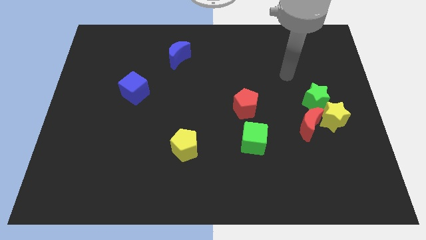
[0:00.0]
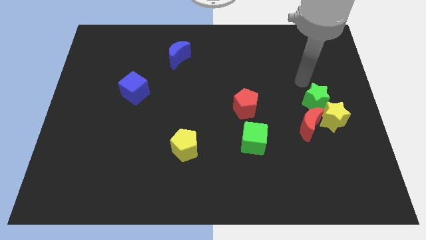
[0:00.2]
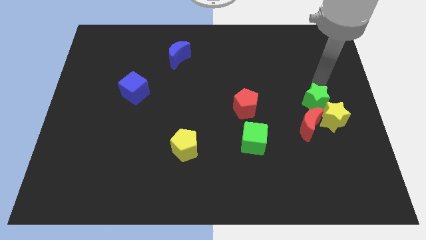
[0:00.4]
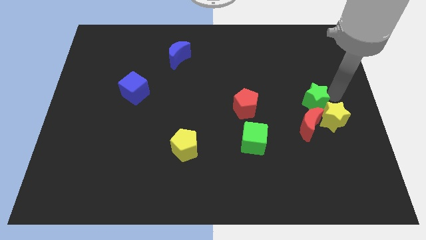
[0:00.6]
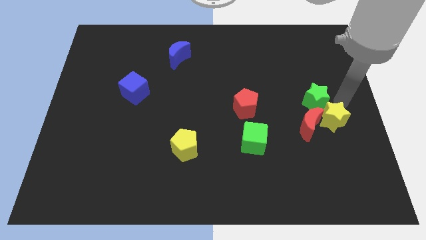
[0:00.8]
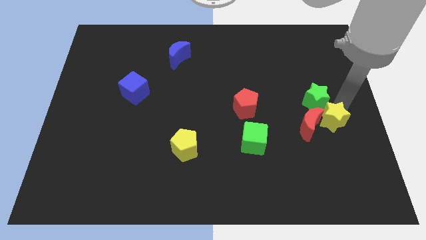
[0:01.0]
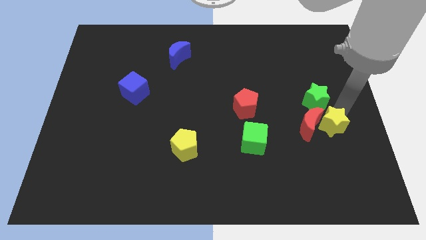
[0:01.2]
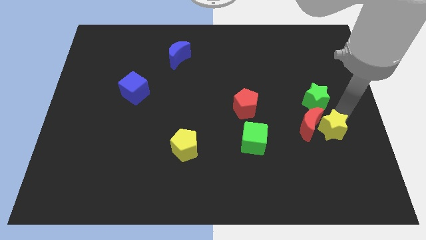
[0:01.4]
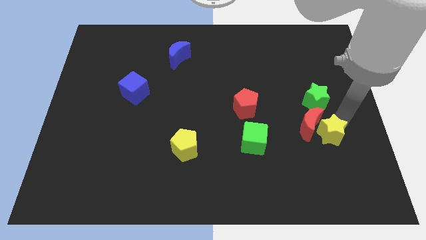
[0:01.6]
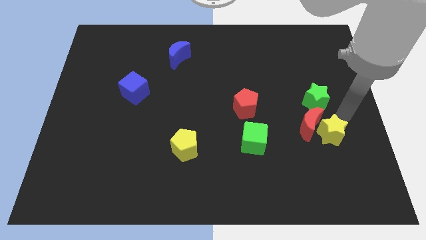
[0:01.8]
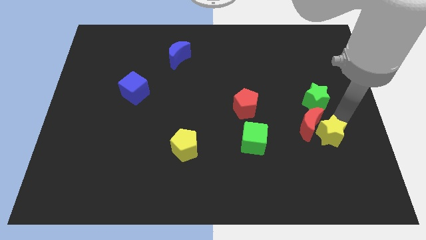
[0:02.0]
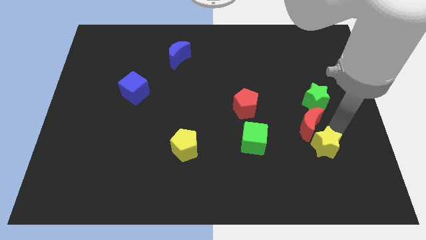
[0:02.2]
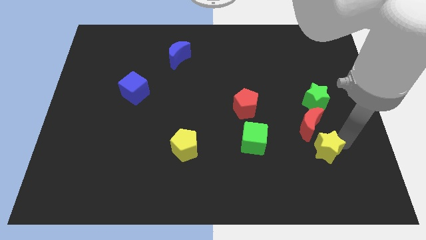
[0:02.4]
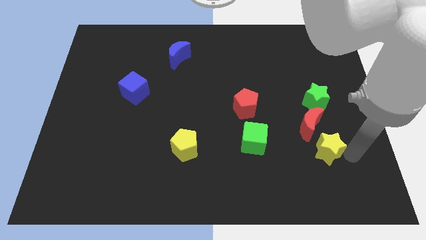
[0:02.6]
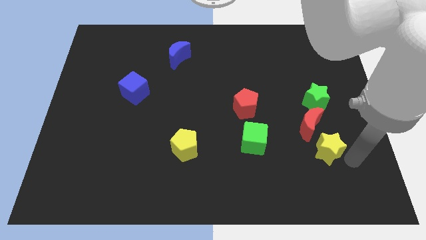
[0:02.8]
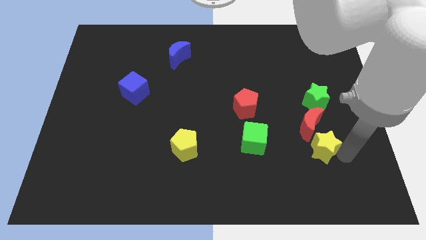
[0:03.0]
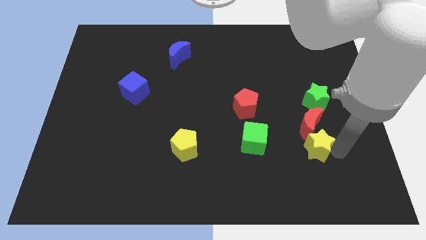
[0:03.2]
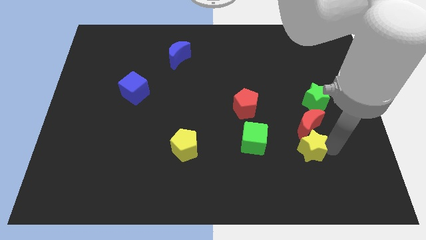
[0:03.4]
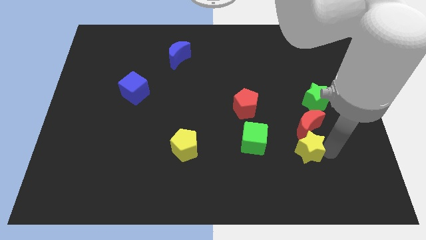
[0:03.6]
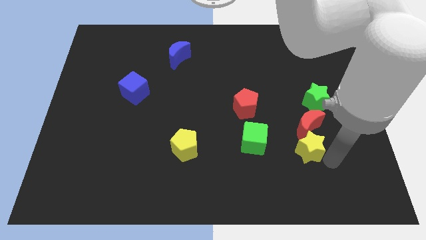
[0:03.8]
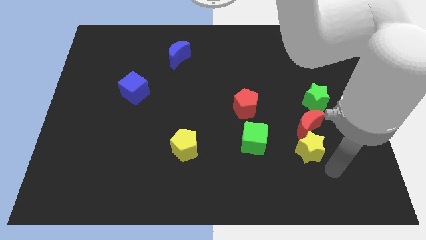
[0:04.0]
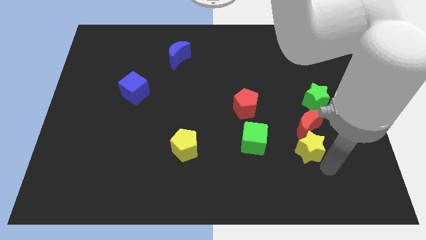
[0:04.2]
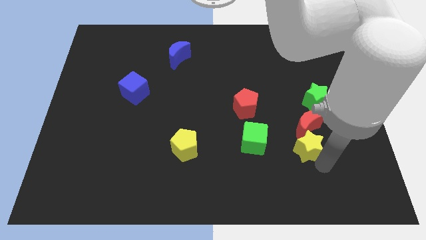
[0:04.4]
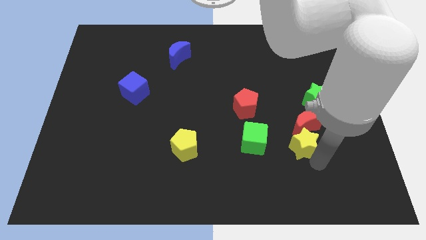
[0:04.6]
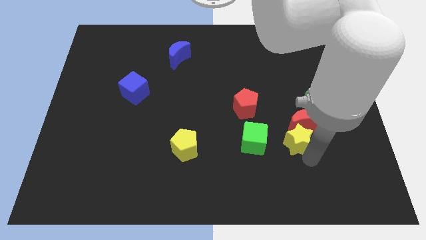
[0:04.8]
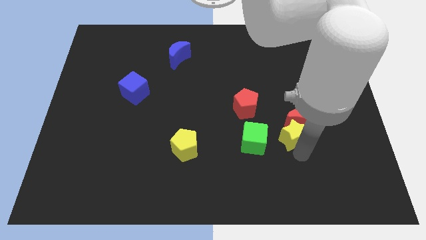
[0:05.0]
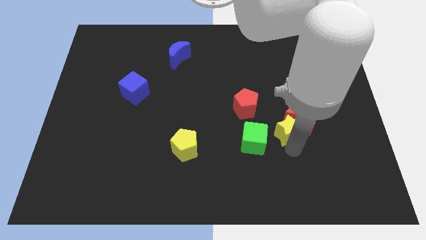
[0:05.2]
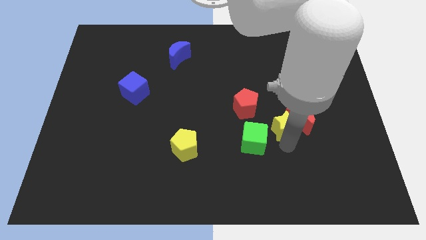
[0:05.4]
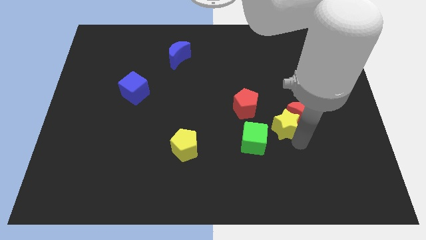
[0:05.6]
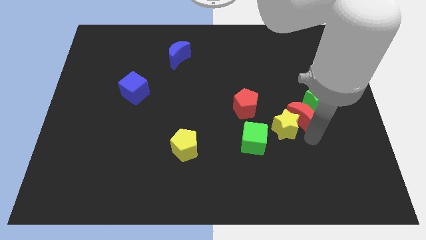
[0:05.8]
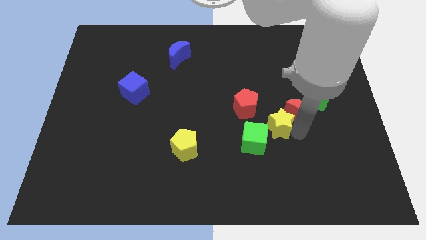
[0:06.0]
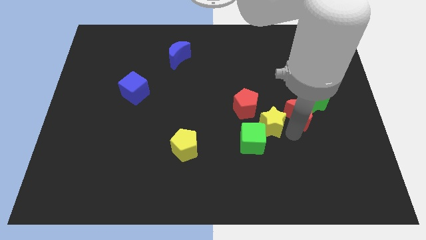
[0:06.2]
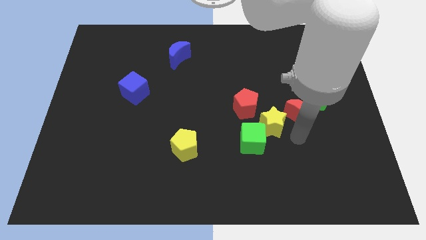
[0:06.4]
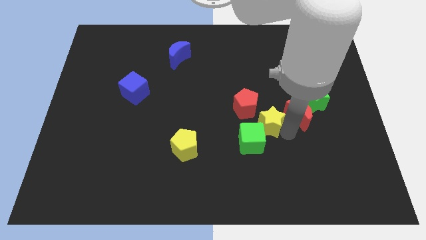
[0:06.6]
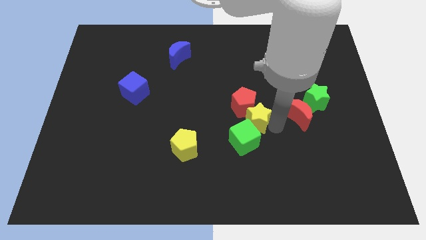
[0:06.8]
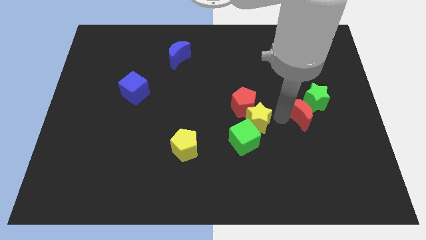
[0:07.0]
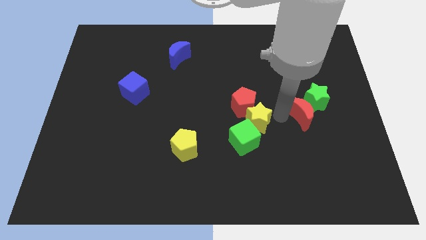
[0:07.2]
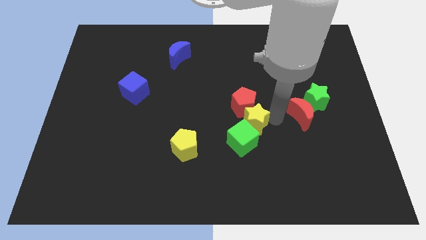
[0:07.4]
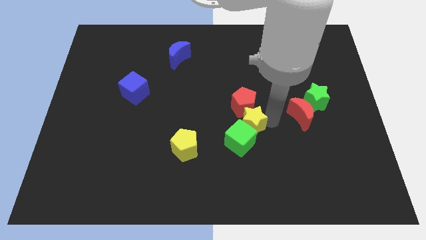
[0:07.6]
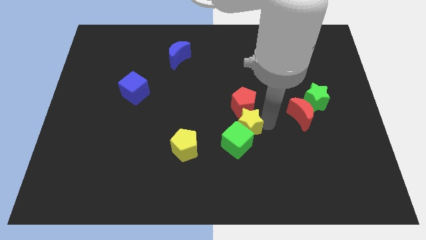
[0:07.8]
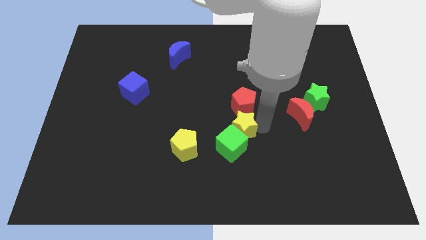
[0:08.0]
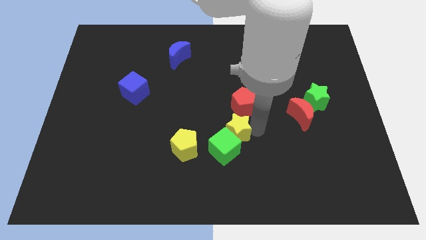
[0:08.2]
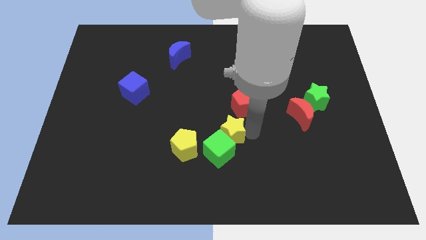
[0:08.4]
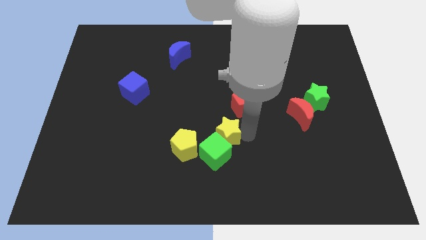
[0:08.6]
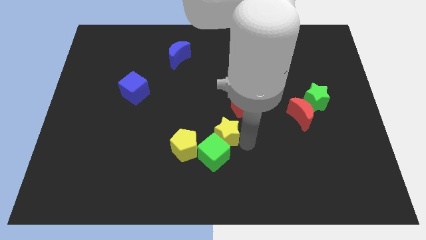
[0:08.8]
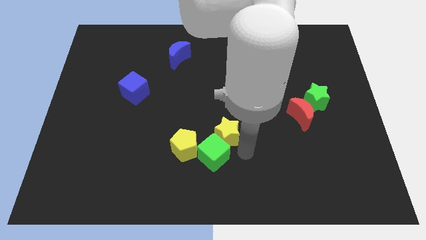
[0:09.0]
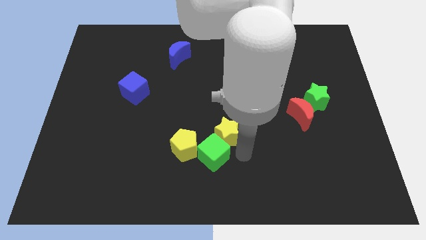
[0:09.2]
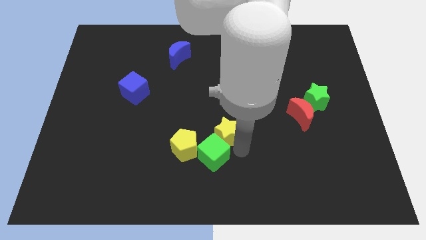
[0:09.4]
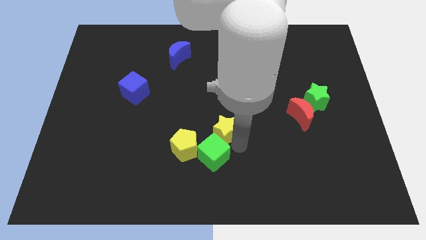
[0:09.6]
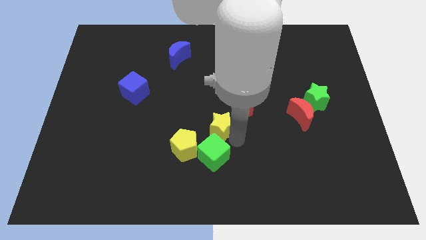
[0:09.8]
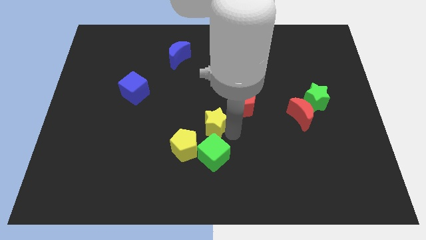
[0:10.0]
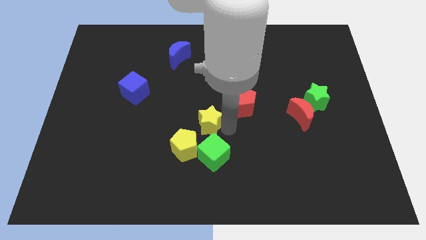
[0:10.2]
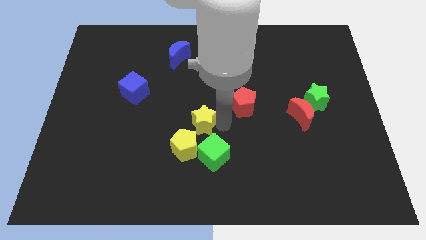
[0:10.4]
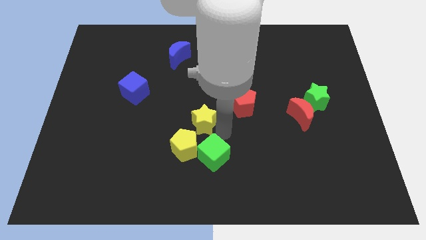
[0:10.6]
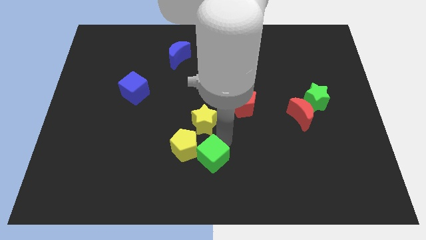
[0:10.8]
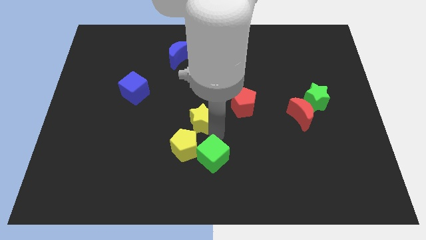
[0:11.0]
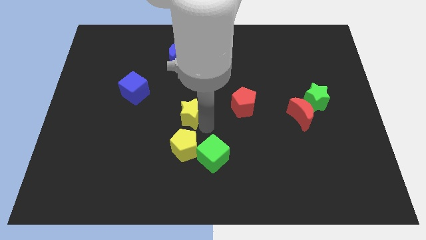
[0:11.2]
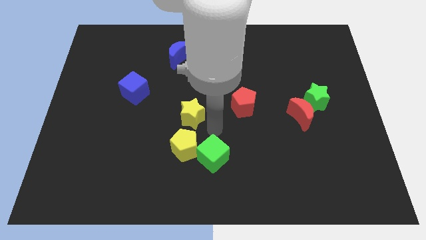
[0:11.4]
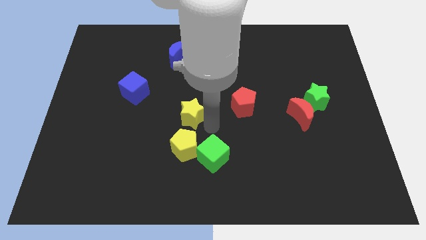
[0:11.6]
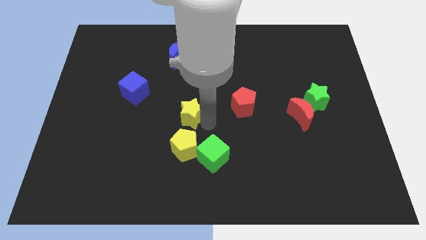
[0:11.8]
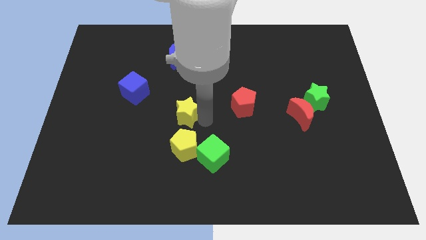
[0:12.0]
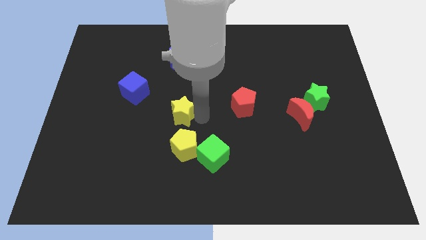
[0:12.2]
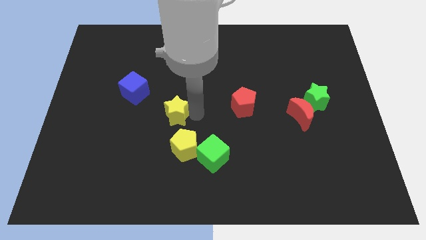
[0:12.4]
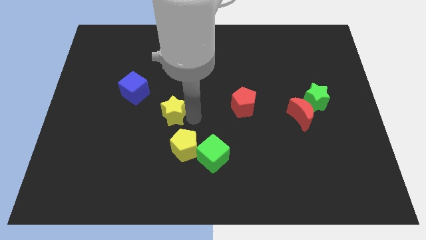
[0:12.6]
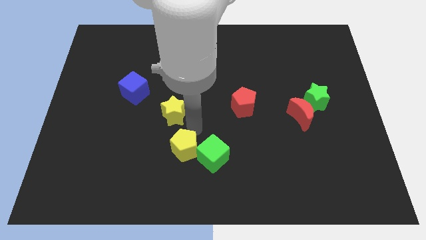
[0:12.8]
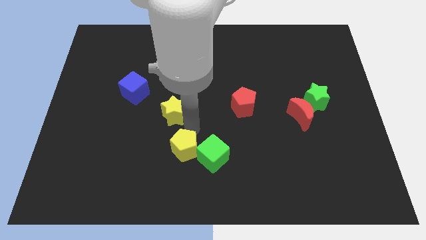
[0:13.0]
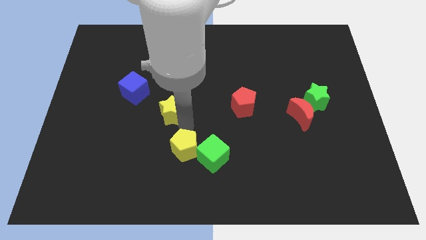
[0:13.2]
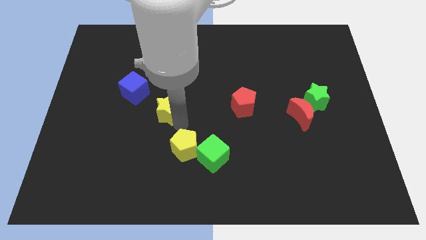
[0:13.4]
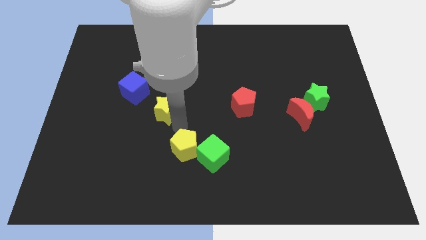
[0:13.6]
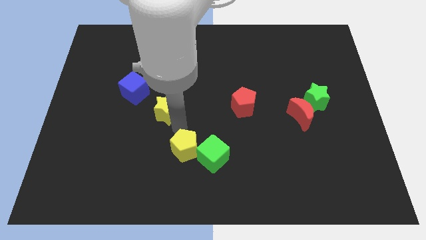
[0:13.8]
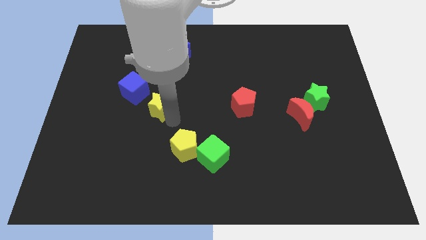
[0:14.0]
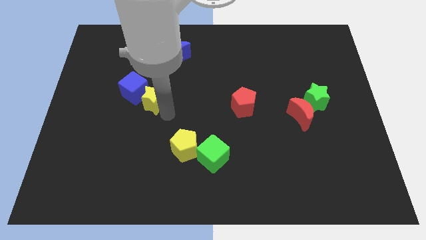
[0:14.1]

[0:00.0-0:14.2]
push the yellow star close to the blue cube
